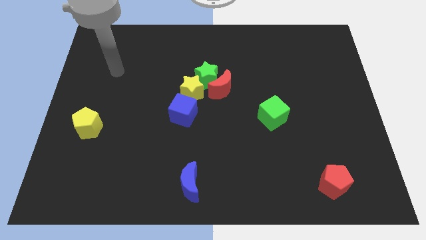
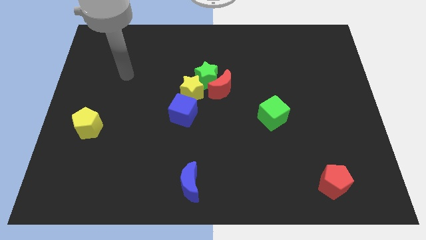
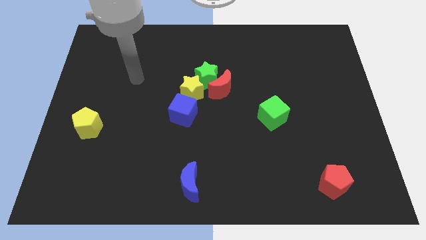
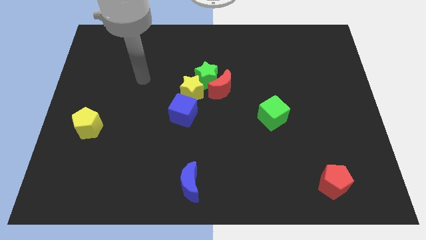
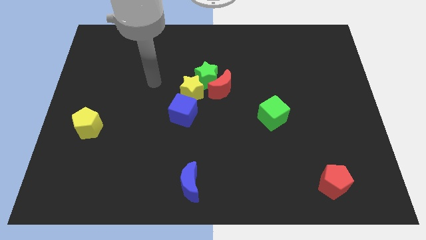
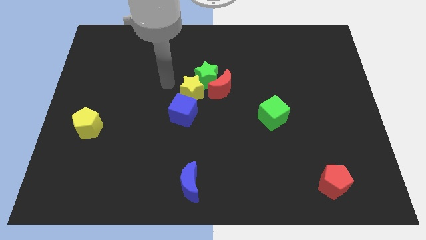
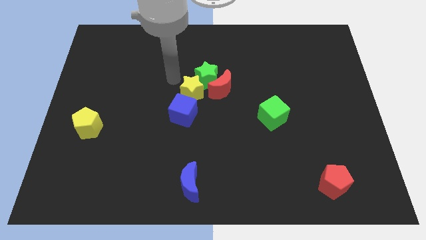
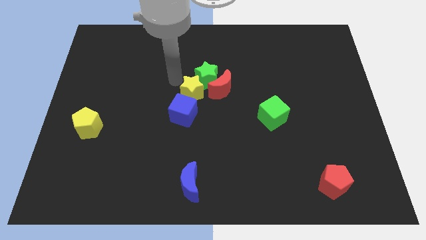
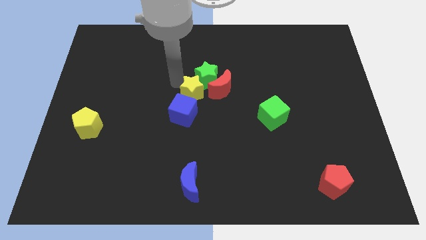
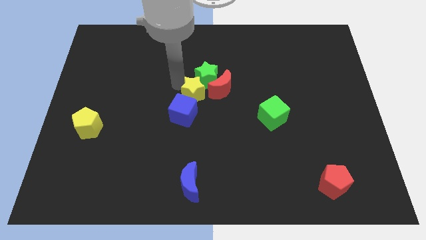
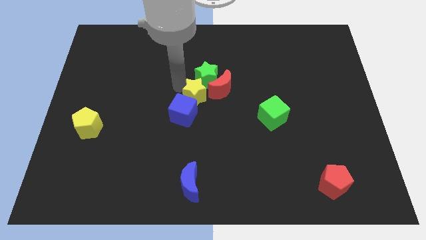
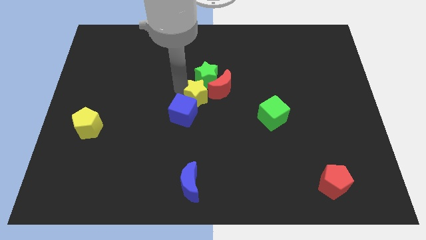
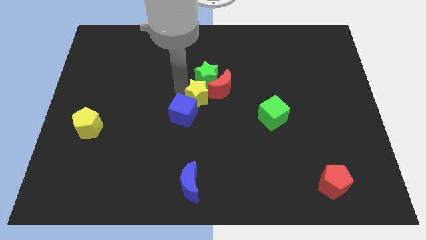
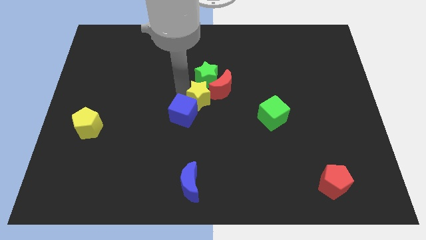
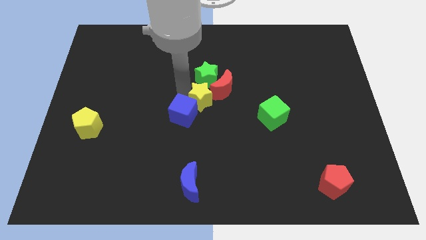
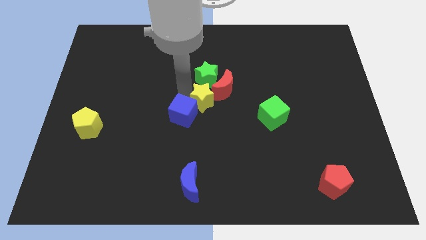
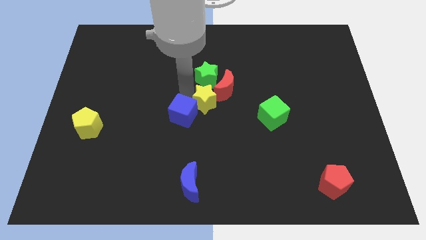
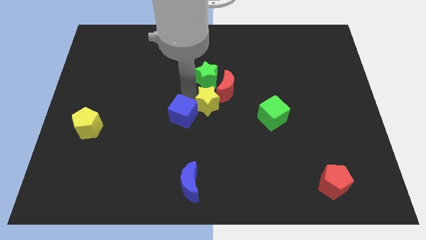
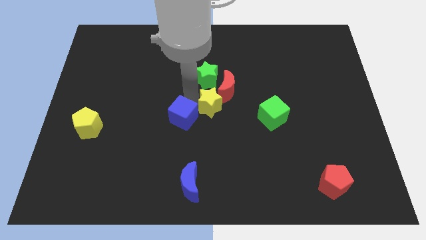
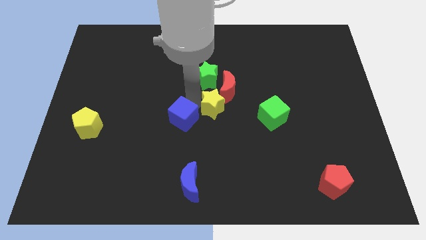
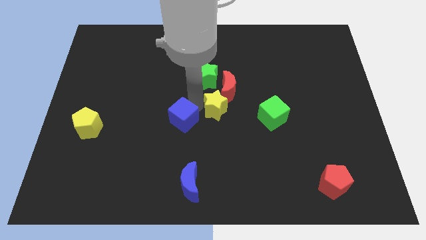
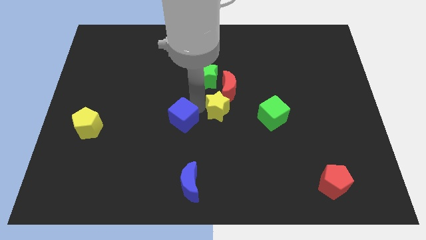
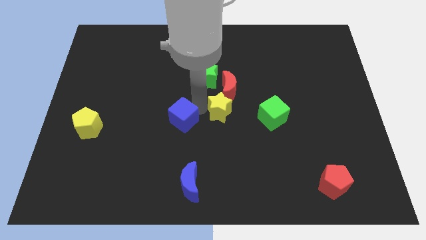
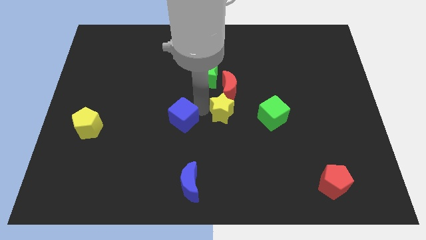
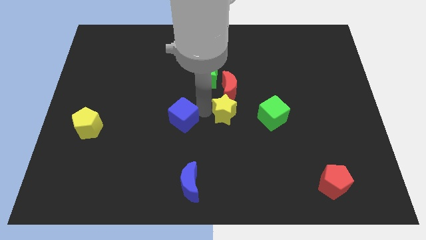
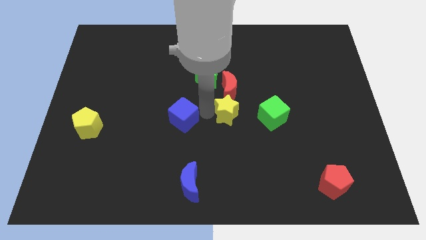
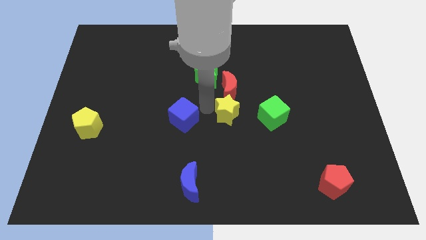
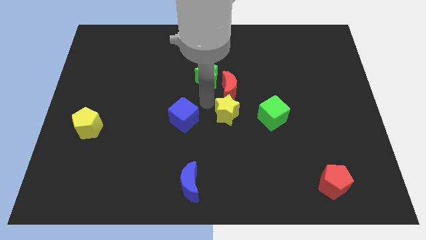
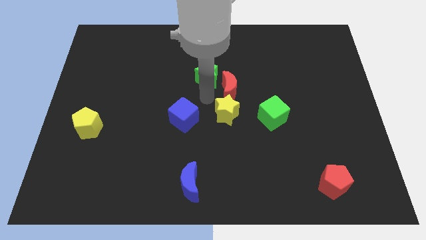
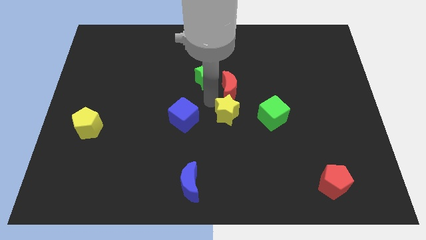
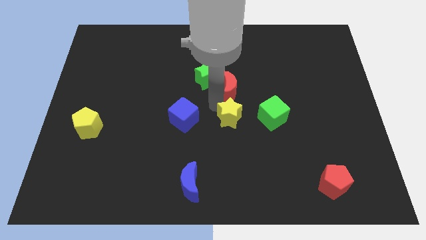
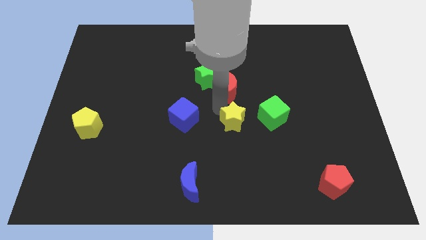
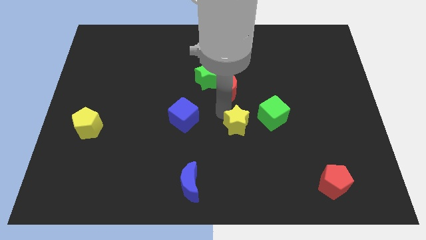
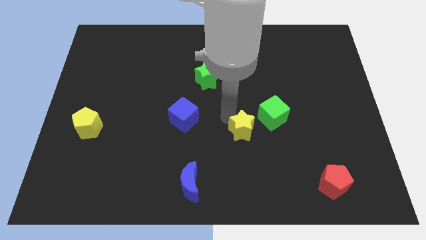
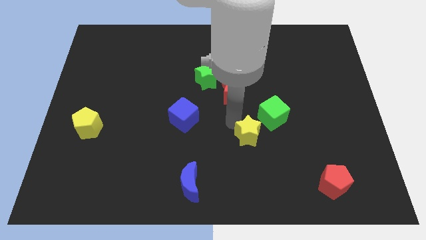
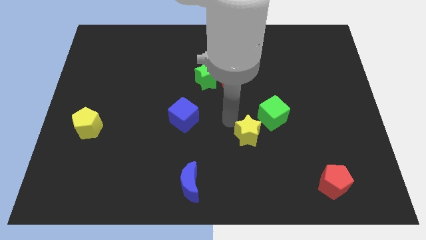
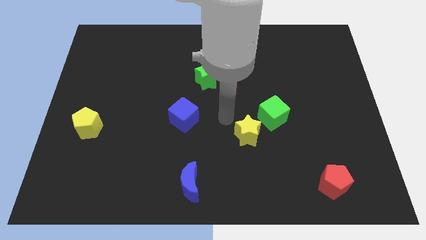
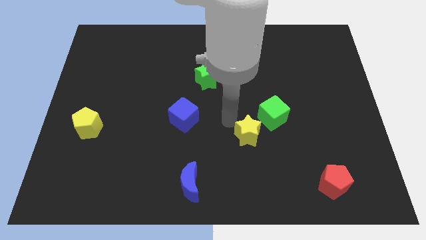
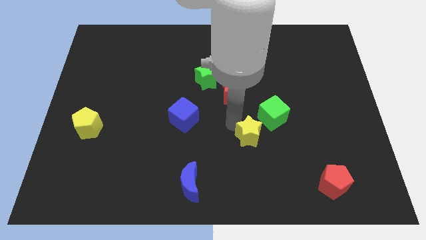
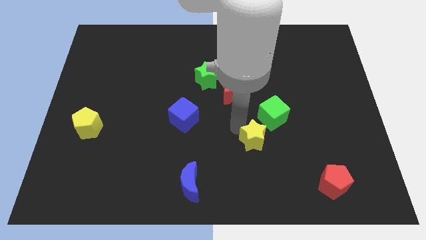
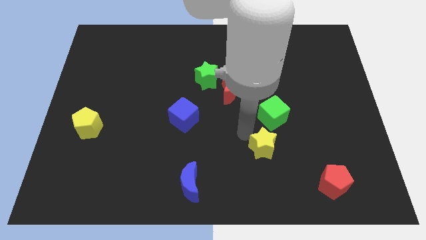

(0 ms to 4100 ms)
move the yellow star downwards and then right

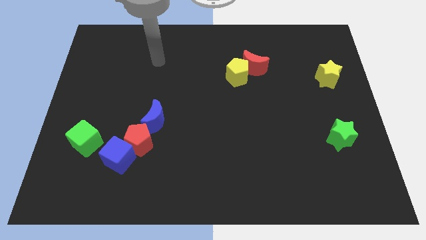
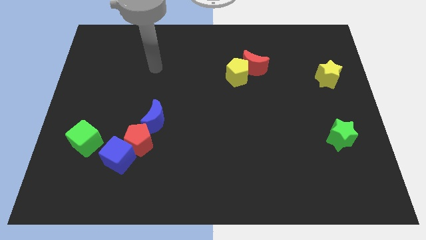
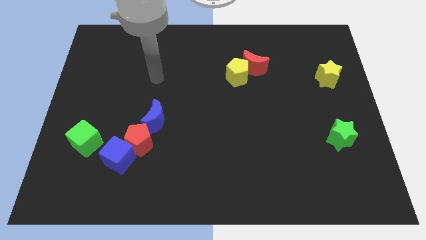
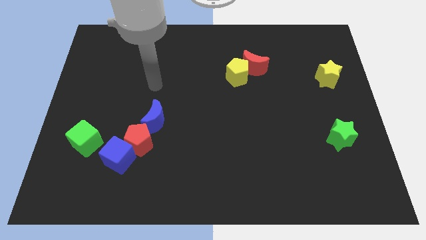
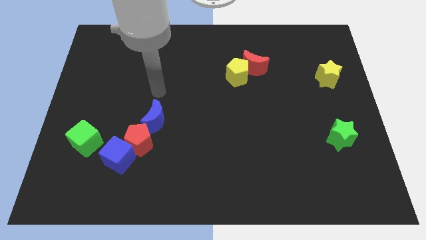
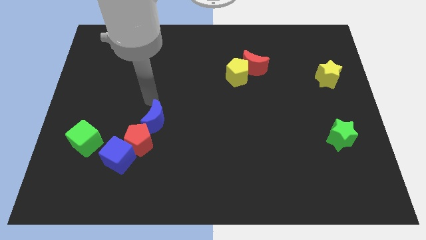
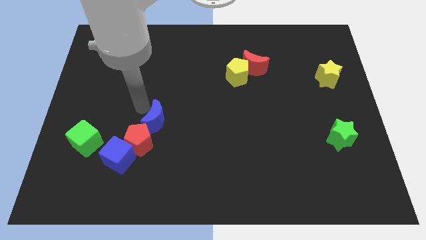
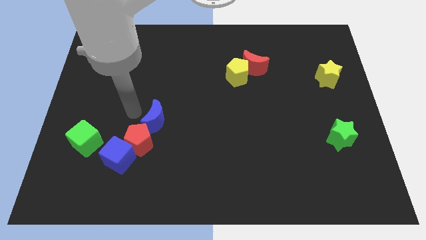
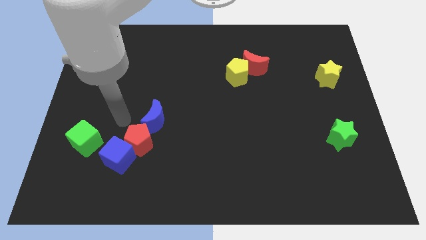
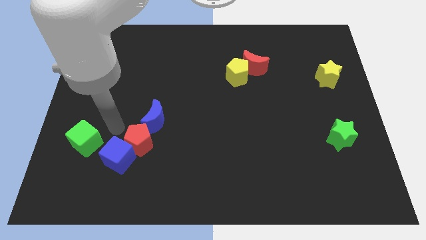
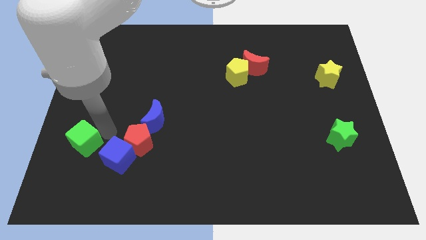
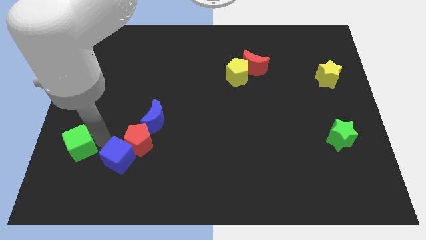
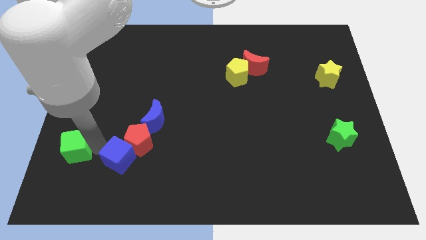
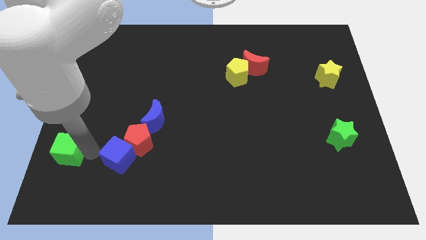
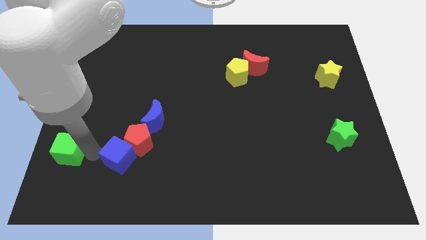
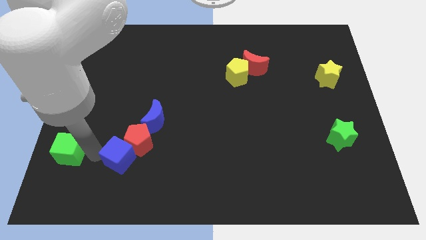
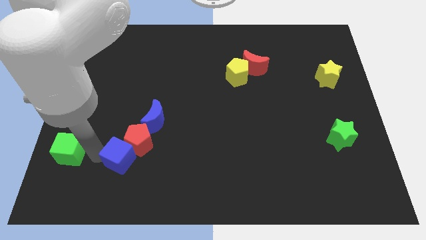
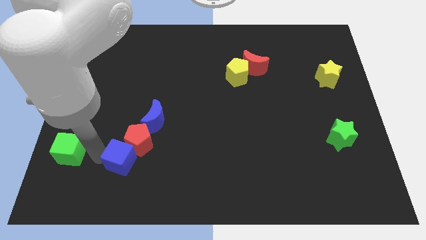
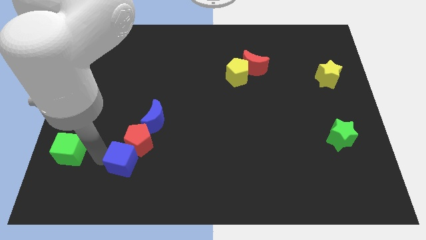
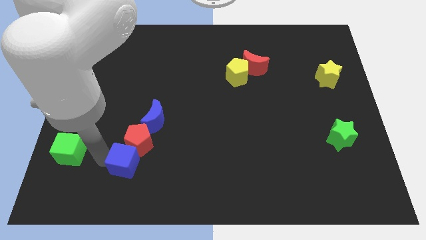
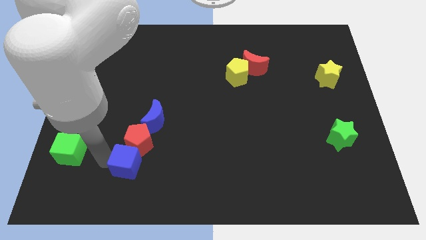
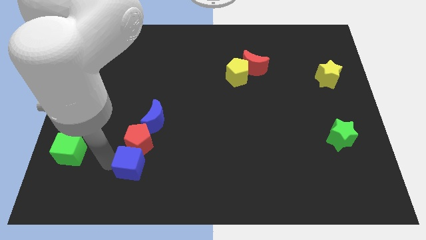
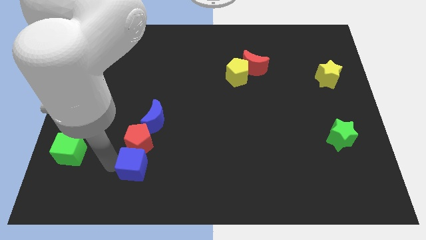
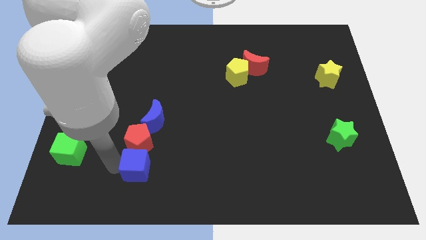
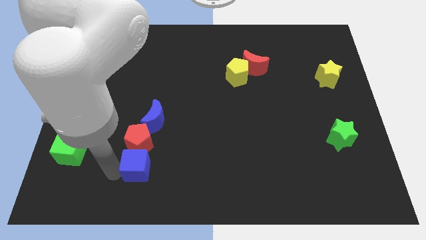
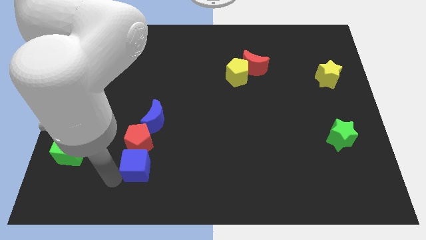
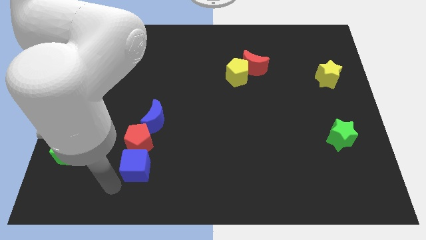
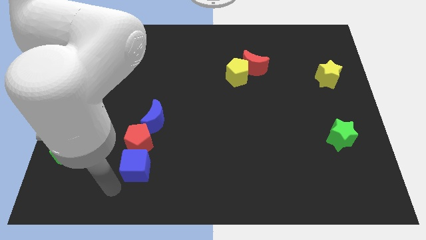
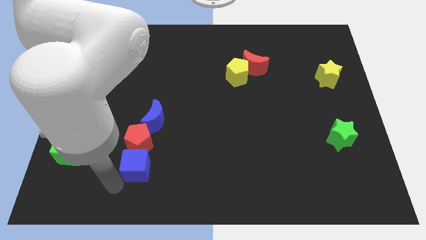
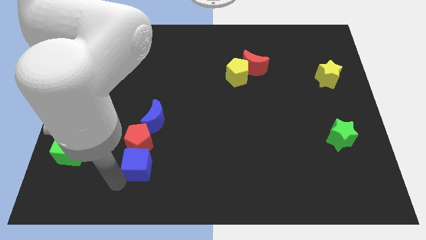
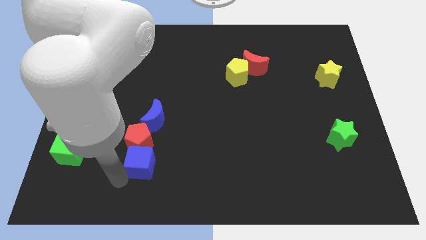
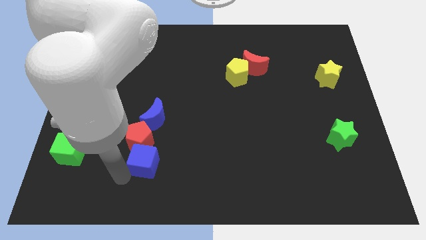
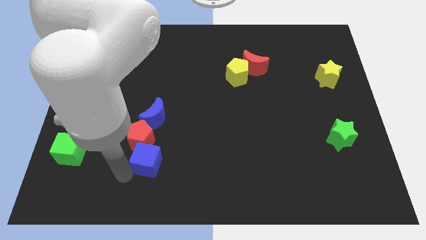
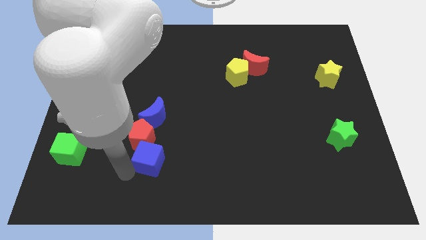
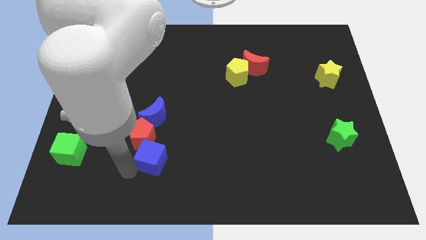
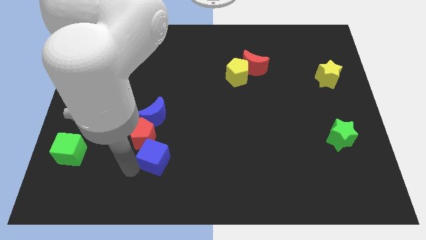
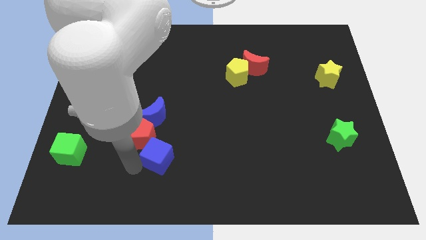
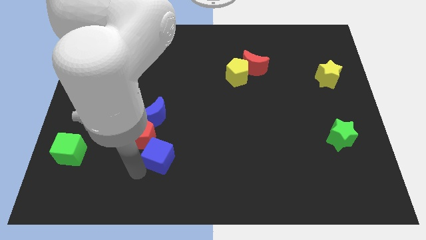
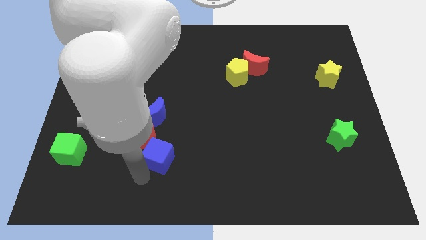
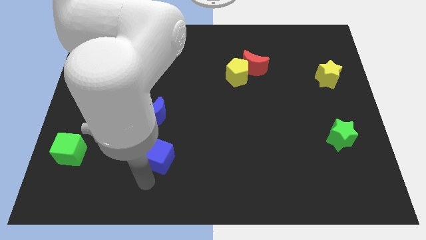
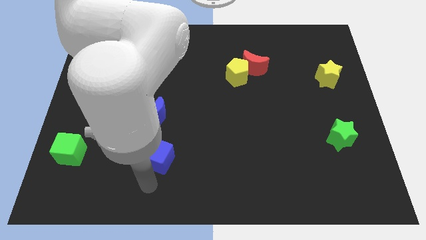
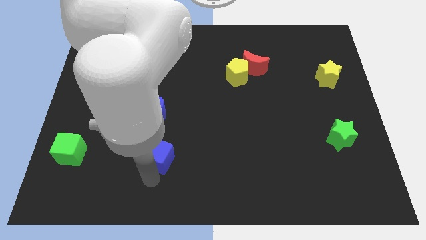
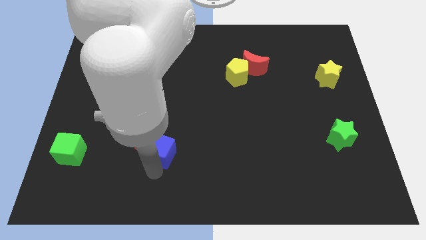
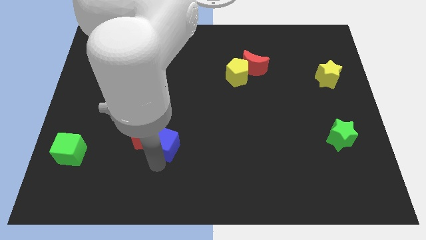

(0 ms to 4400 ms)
push the blue cube diagonally up and right a little
